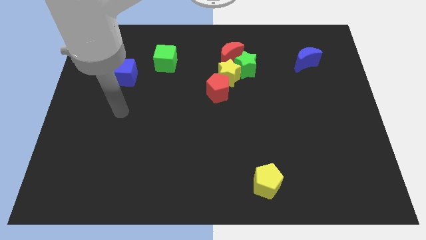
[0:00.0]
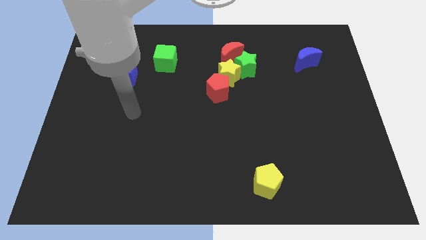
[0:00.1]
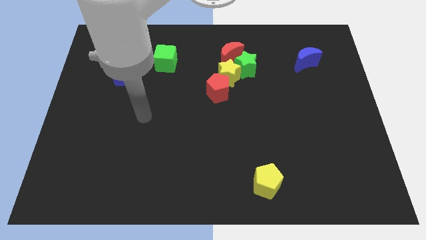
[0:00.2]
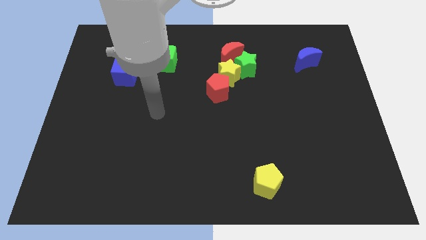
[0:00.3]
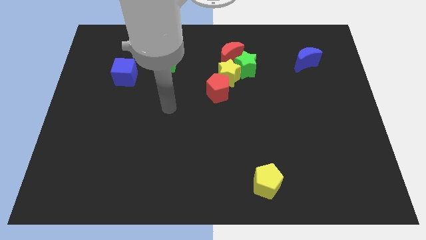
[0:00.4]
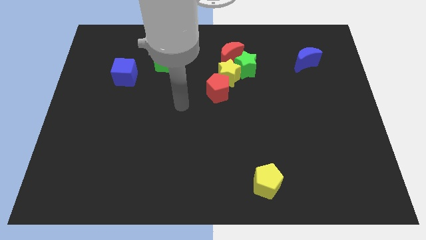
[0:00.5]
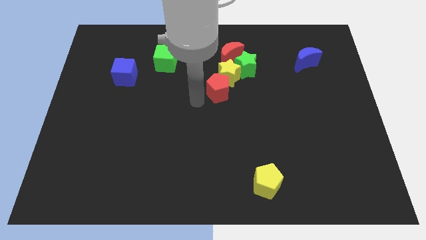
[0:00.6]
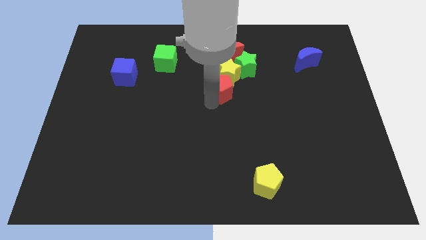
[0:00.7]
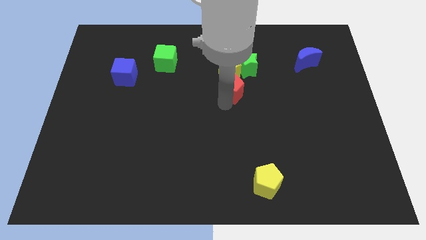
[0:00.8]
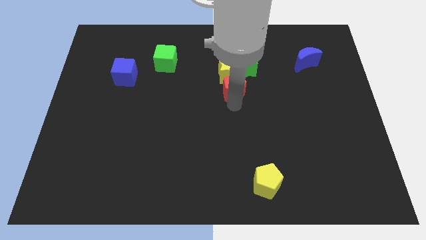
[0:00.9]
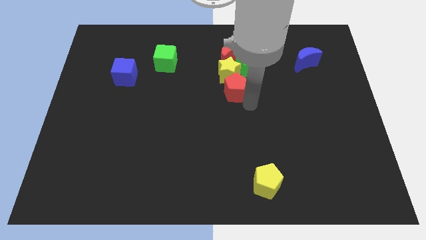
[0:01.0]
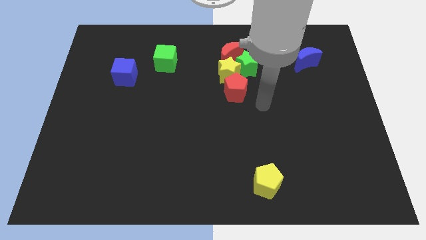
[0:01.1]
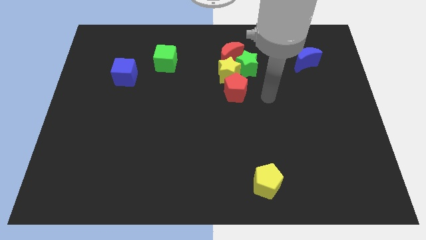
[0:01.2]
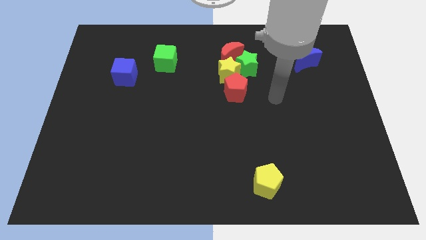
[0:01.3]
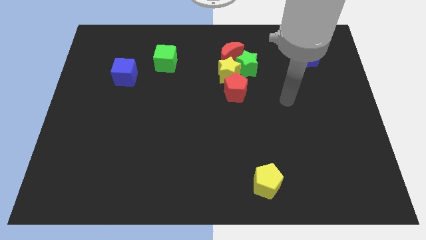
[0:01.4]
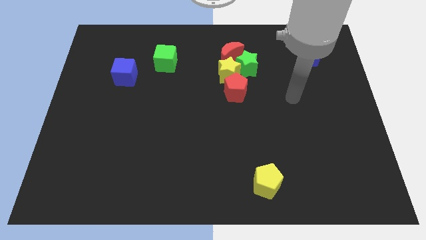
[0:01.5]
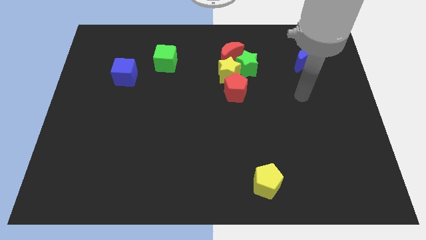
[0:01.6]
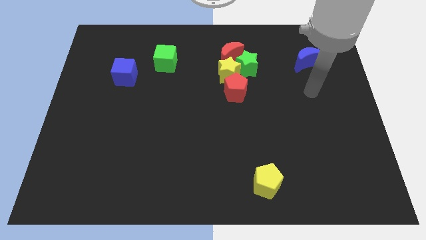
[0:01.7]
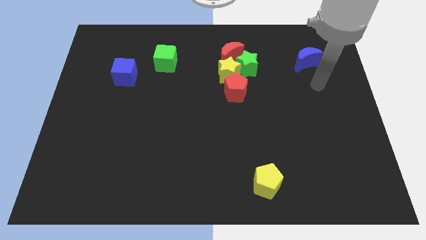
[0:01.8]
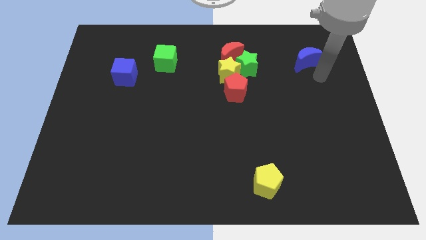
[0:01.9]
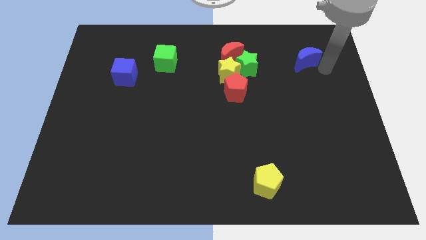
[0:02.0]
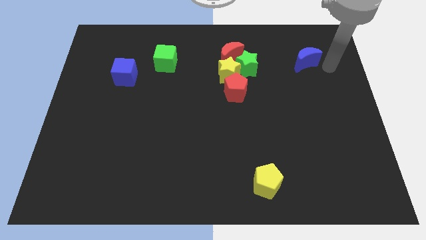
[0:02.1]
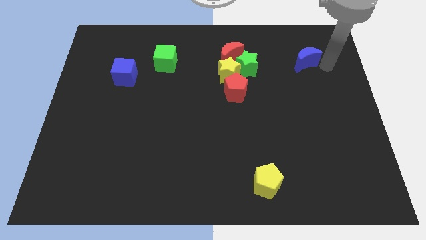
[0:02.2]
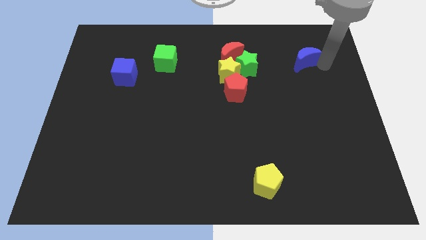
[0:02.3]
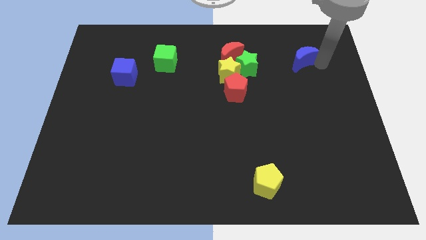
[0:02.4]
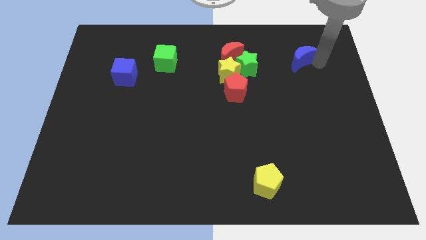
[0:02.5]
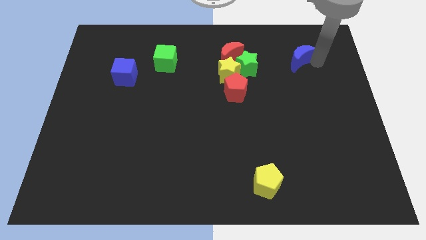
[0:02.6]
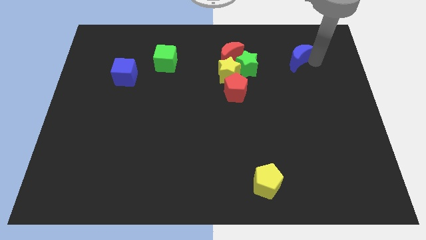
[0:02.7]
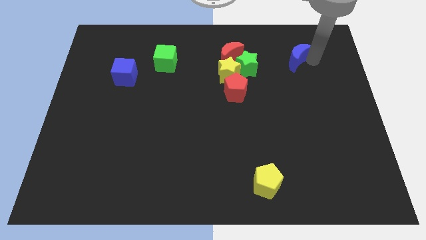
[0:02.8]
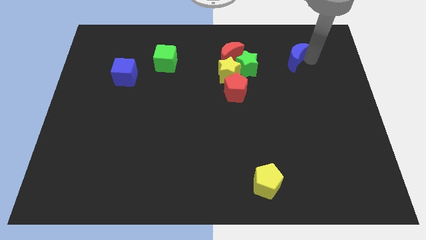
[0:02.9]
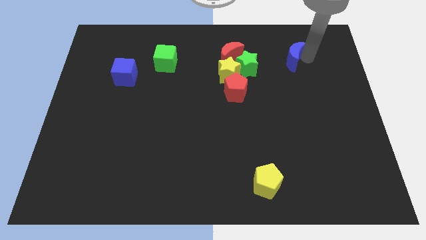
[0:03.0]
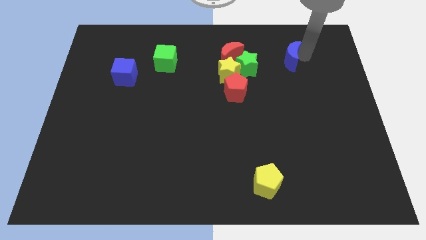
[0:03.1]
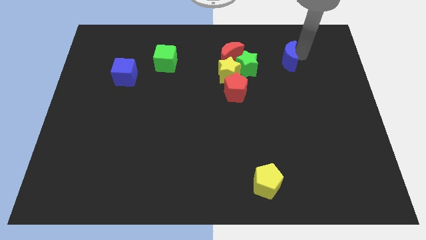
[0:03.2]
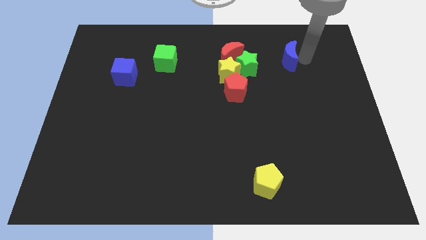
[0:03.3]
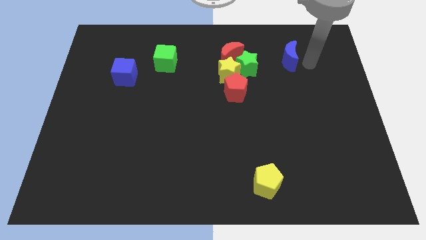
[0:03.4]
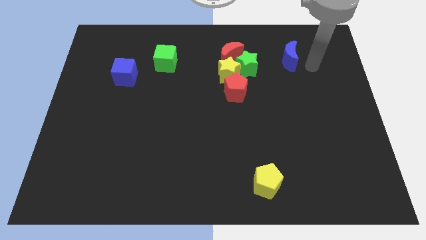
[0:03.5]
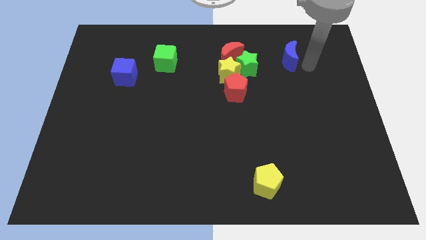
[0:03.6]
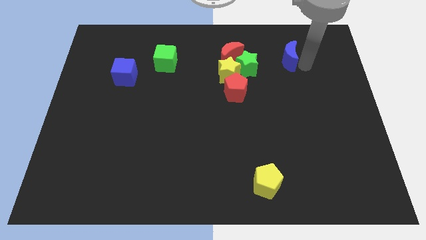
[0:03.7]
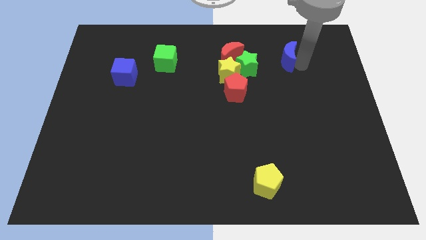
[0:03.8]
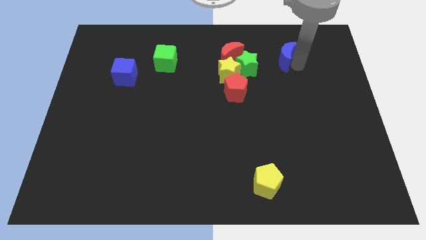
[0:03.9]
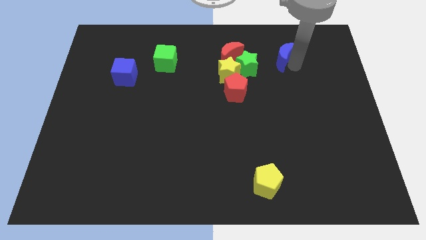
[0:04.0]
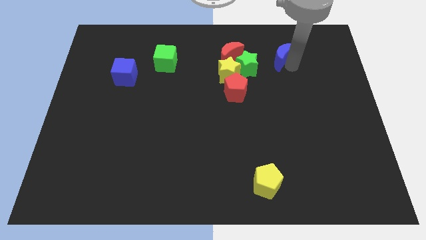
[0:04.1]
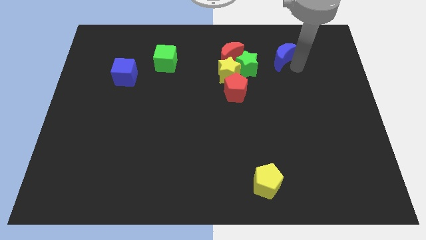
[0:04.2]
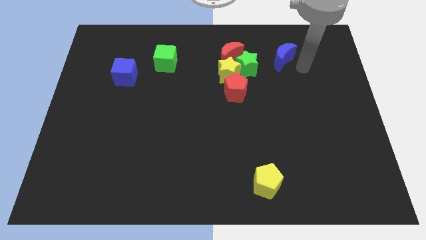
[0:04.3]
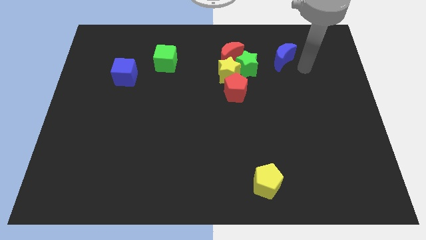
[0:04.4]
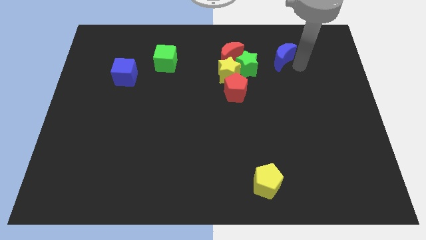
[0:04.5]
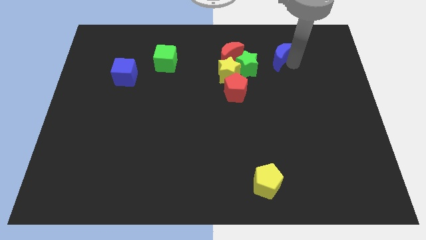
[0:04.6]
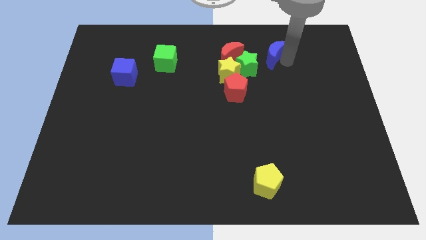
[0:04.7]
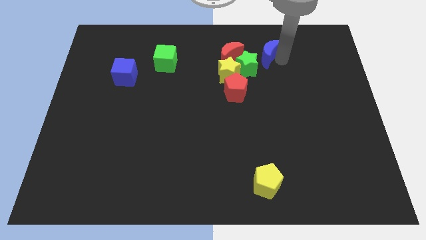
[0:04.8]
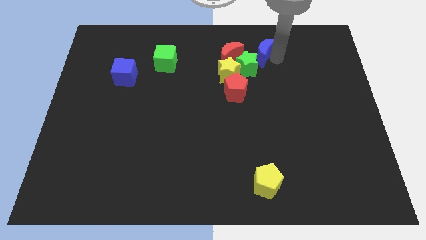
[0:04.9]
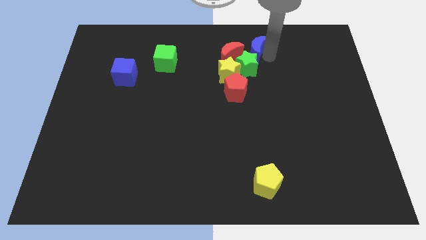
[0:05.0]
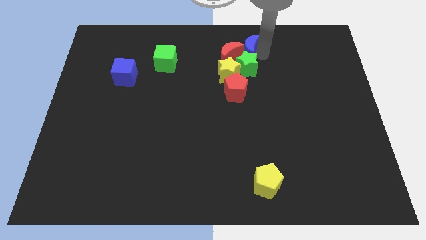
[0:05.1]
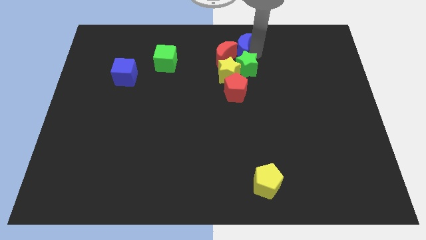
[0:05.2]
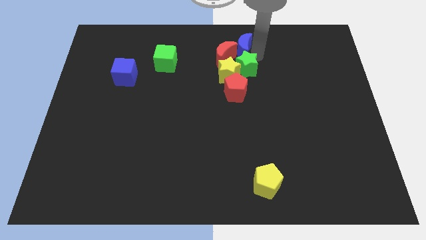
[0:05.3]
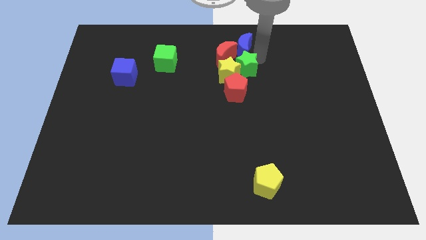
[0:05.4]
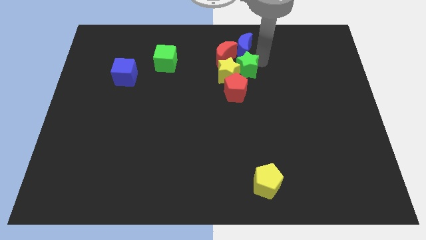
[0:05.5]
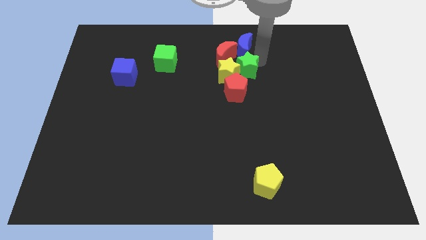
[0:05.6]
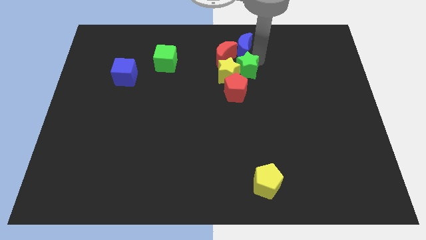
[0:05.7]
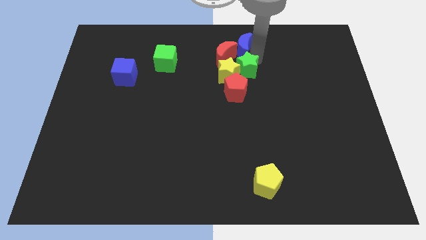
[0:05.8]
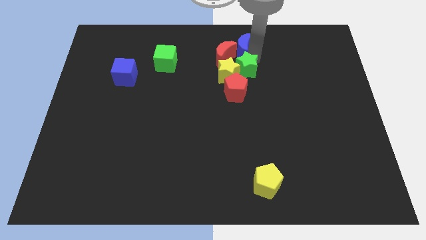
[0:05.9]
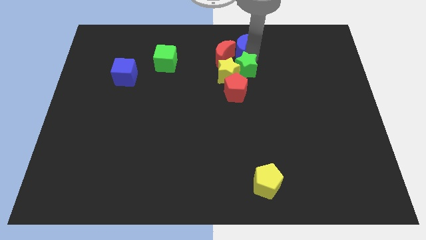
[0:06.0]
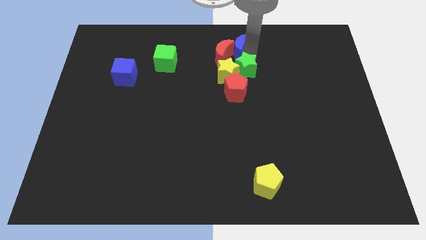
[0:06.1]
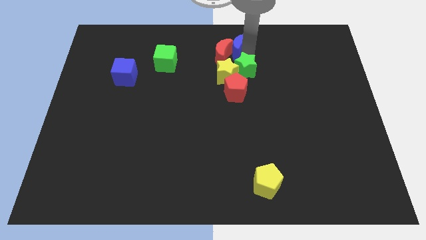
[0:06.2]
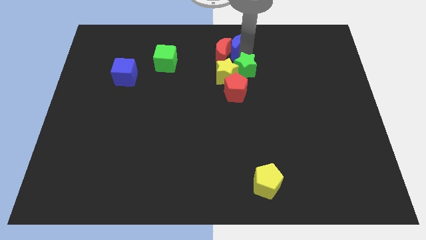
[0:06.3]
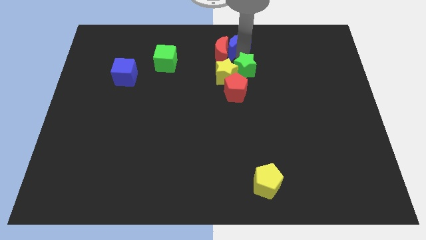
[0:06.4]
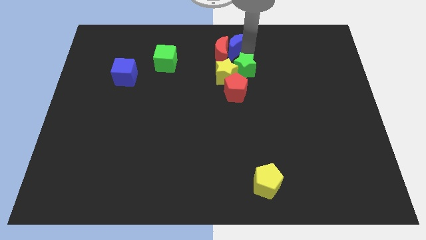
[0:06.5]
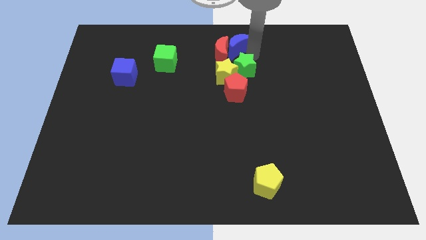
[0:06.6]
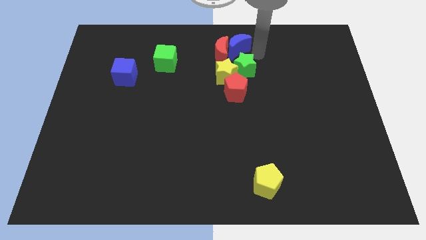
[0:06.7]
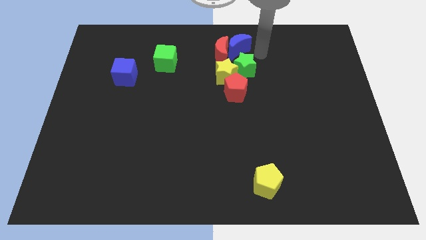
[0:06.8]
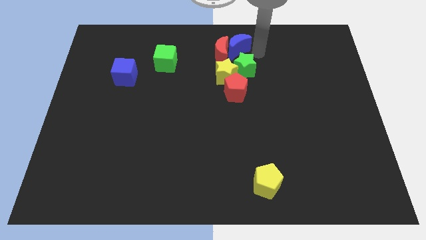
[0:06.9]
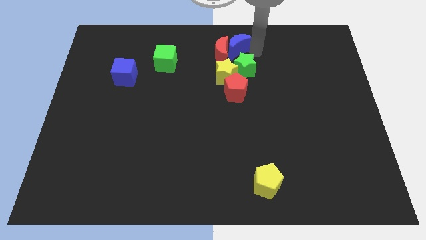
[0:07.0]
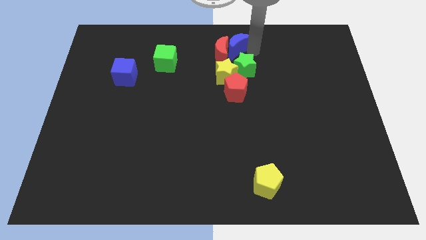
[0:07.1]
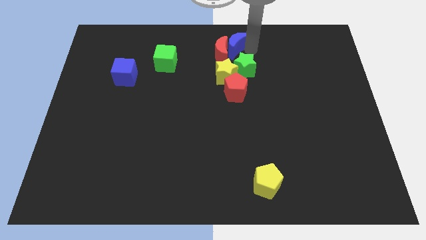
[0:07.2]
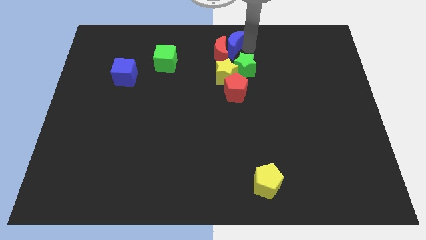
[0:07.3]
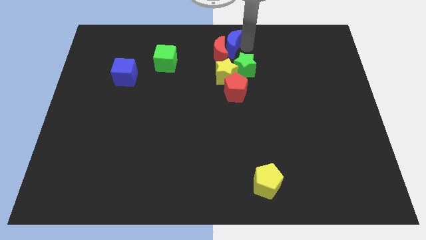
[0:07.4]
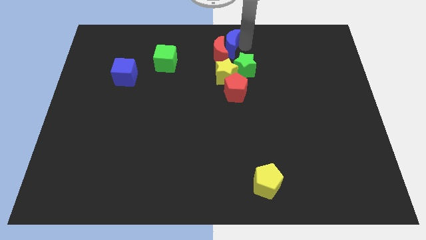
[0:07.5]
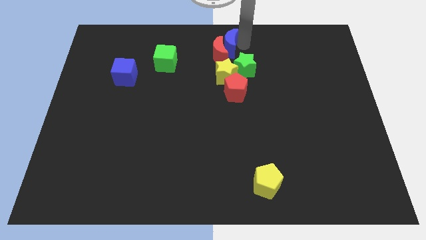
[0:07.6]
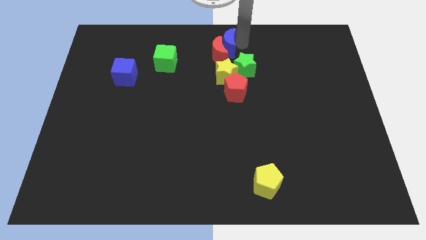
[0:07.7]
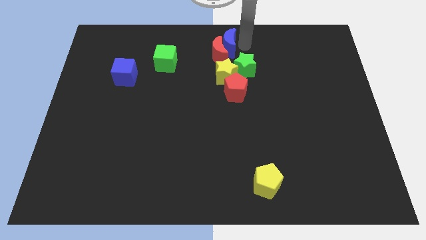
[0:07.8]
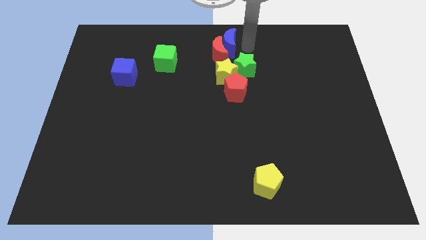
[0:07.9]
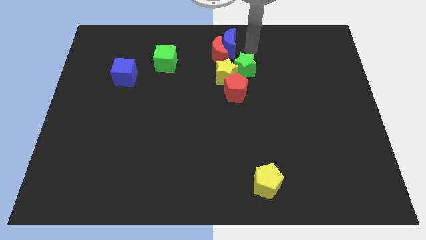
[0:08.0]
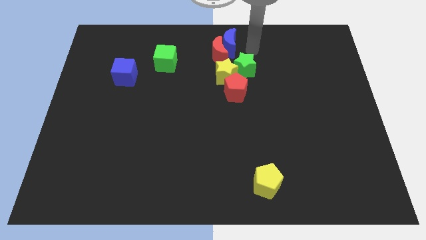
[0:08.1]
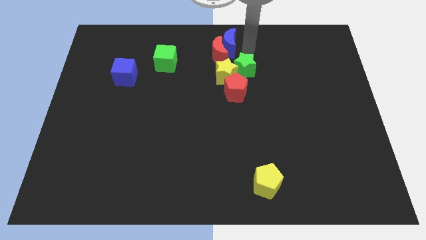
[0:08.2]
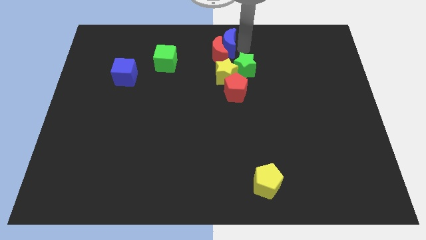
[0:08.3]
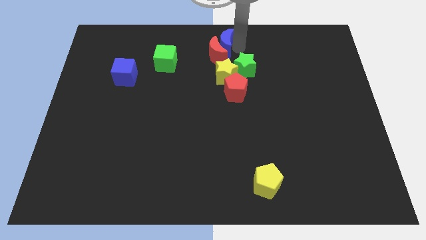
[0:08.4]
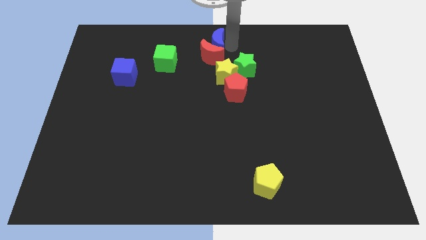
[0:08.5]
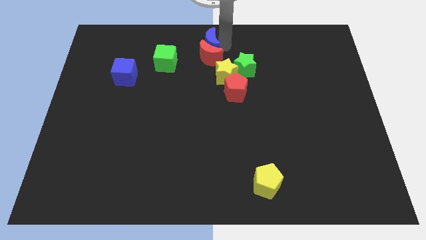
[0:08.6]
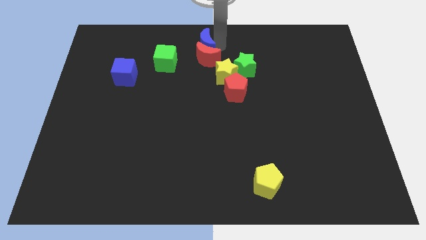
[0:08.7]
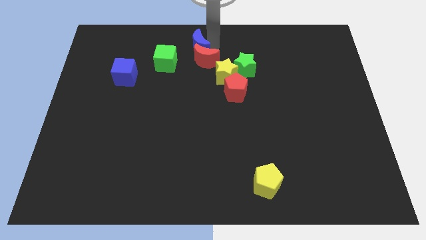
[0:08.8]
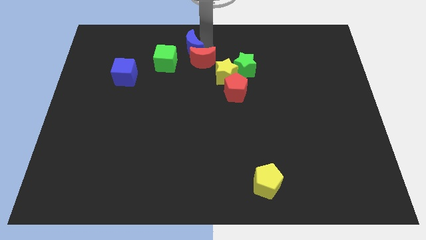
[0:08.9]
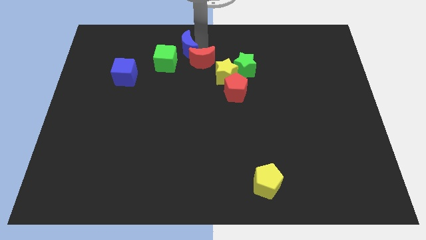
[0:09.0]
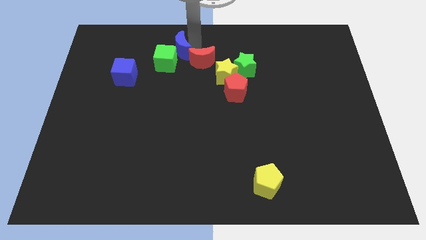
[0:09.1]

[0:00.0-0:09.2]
put the blue moon close to the green cube
